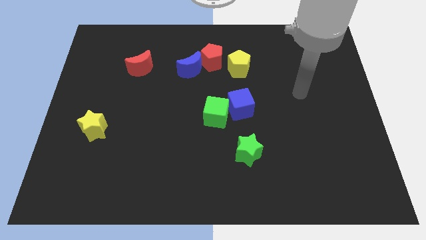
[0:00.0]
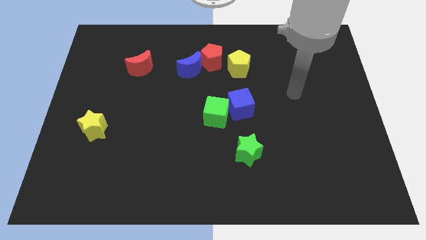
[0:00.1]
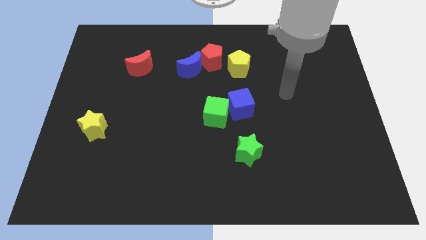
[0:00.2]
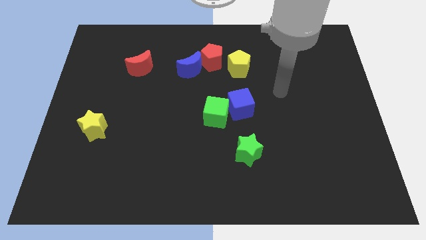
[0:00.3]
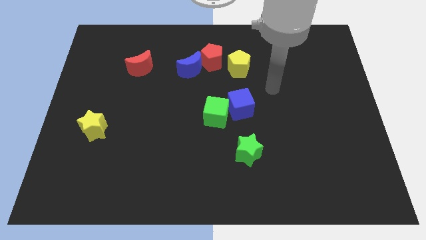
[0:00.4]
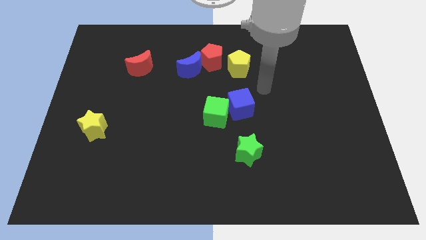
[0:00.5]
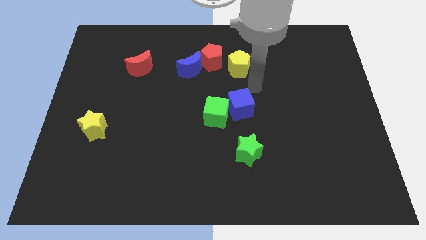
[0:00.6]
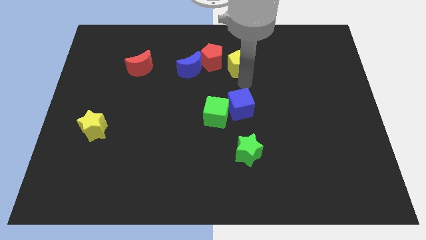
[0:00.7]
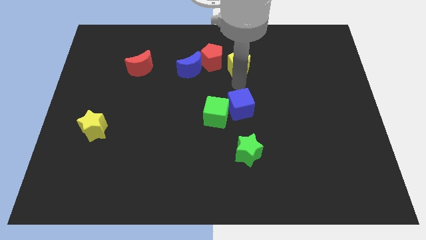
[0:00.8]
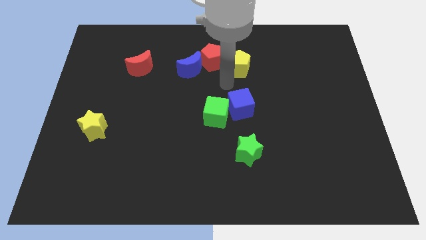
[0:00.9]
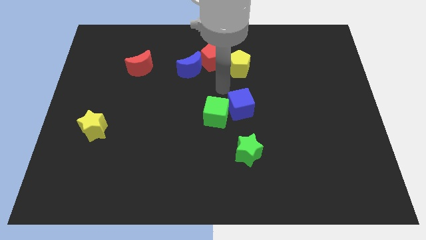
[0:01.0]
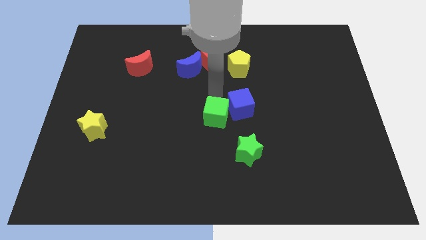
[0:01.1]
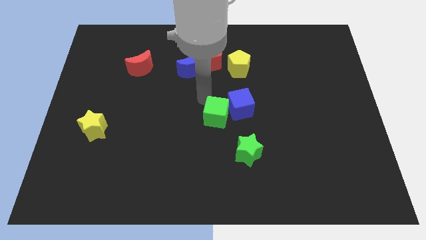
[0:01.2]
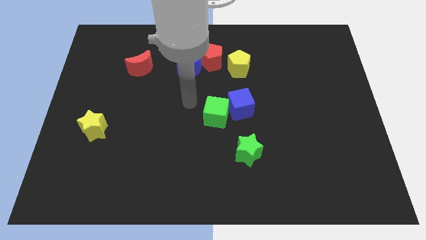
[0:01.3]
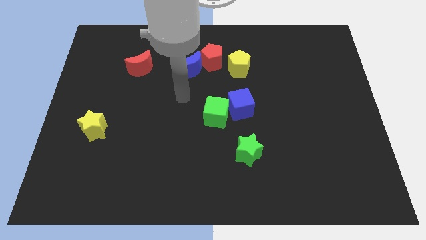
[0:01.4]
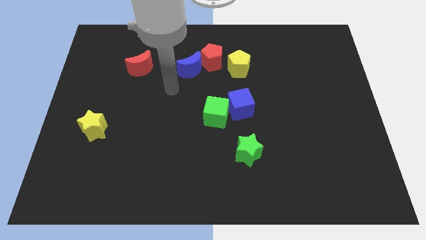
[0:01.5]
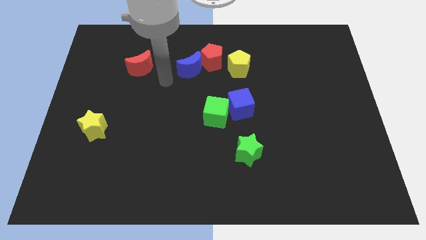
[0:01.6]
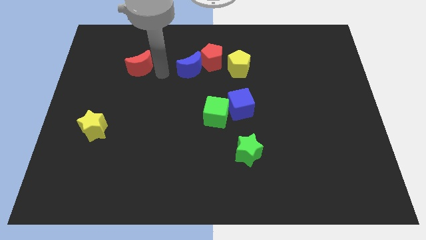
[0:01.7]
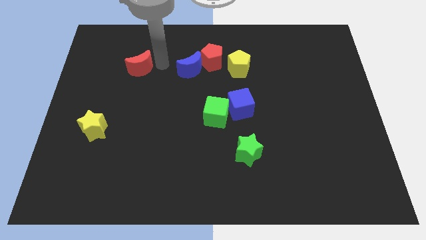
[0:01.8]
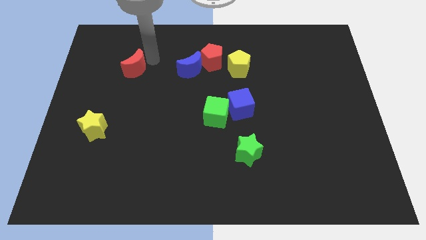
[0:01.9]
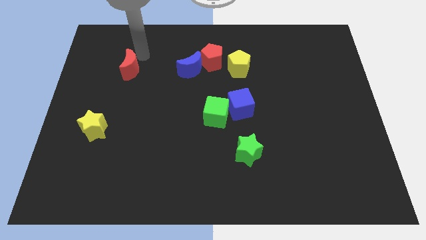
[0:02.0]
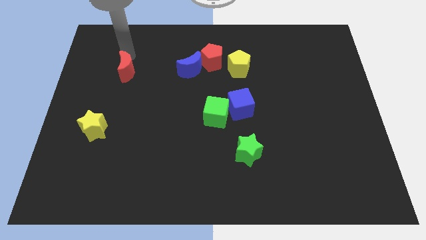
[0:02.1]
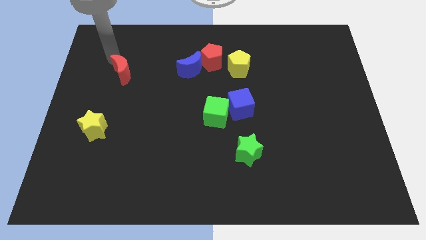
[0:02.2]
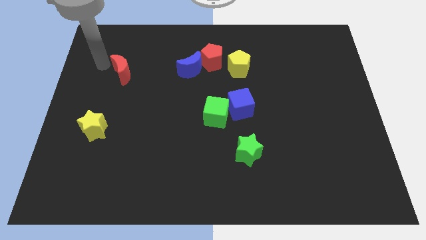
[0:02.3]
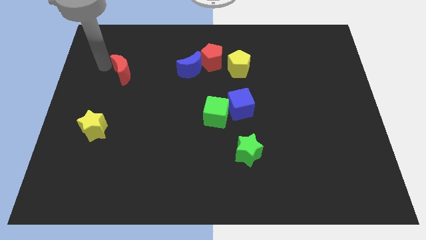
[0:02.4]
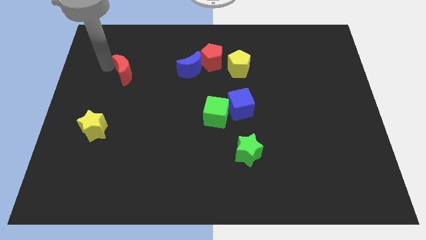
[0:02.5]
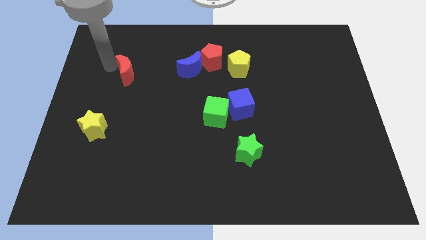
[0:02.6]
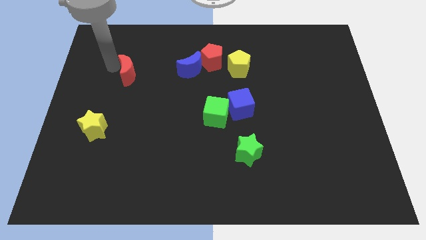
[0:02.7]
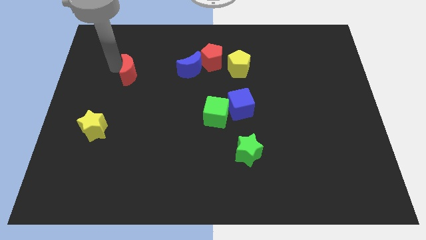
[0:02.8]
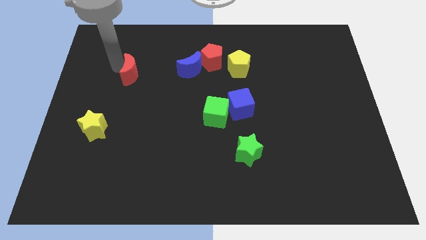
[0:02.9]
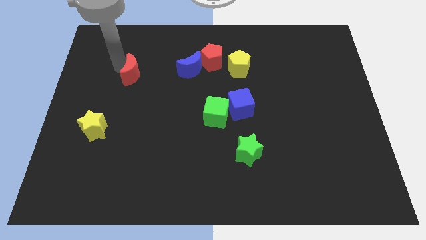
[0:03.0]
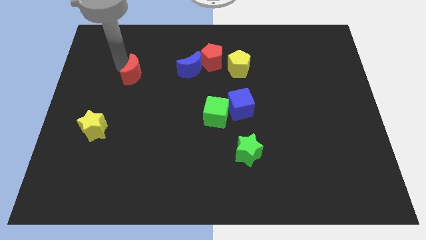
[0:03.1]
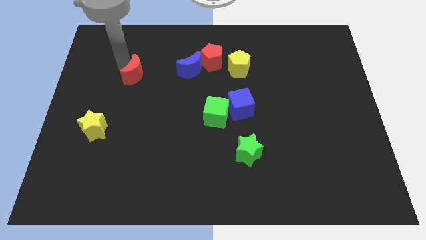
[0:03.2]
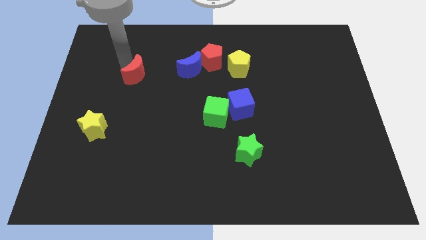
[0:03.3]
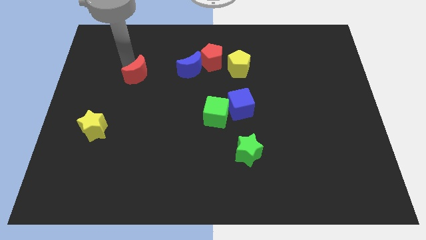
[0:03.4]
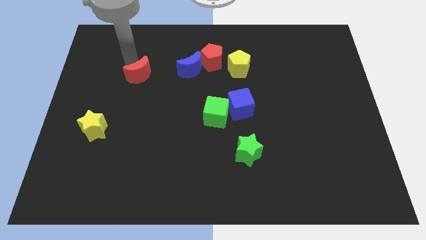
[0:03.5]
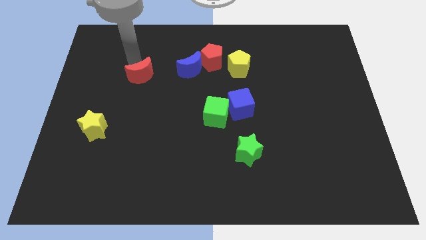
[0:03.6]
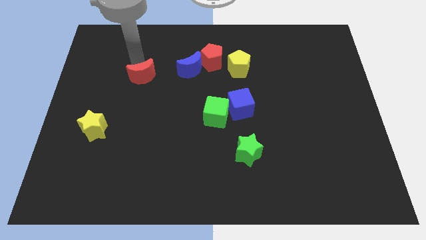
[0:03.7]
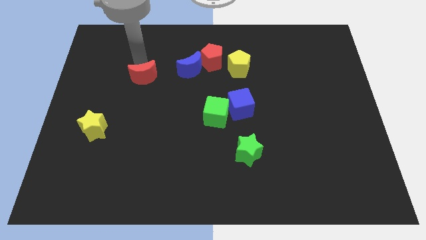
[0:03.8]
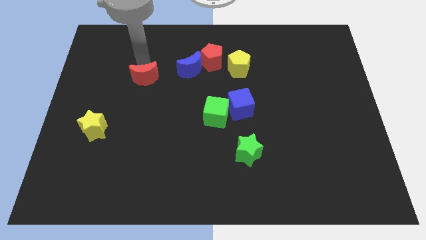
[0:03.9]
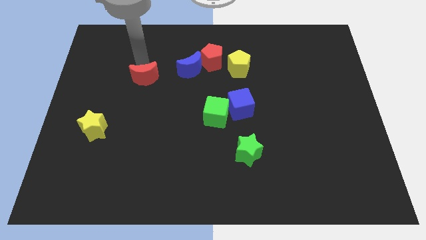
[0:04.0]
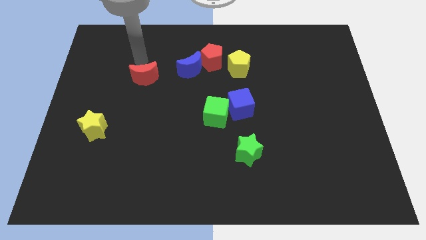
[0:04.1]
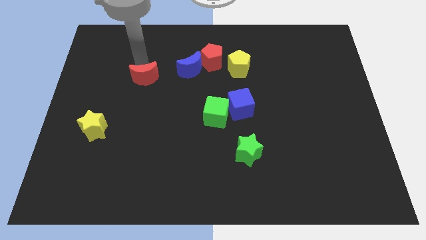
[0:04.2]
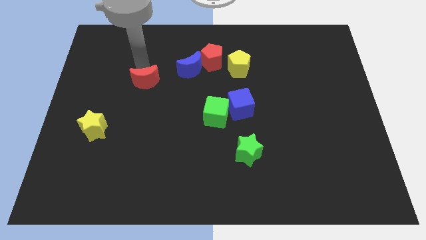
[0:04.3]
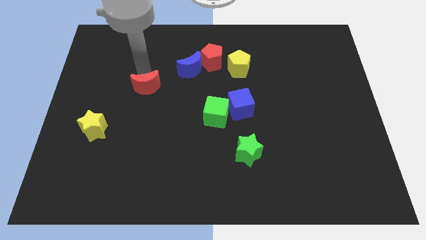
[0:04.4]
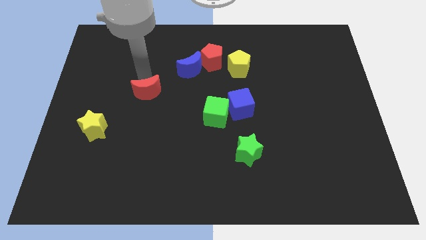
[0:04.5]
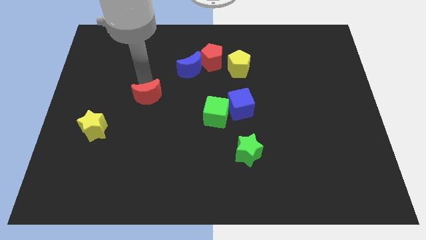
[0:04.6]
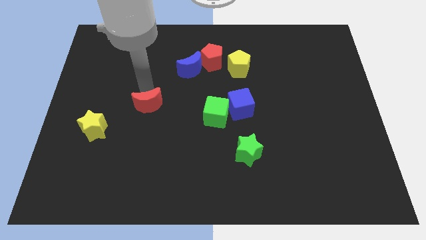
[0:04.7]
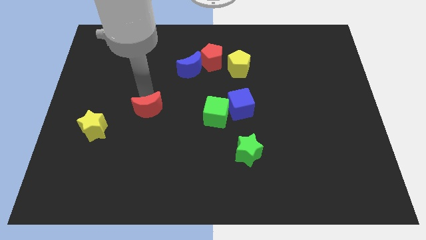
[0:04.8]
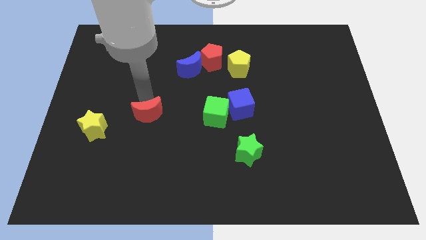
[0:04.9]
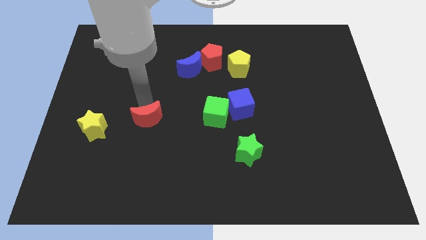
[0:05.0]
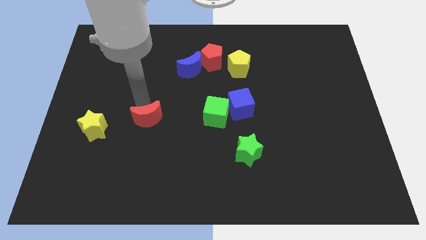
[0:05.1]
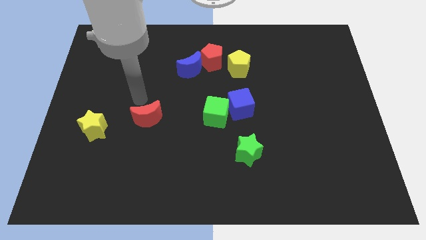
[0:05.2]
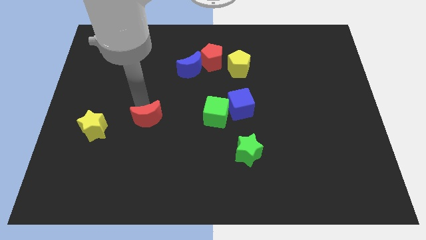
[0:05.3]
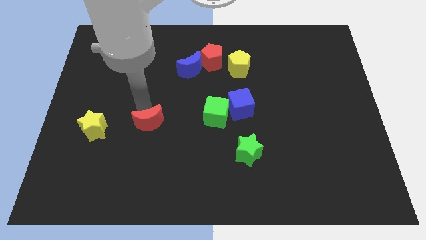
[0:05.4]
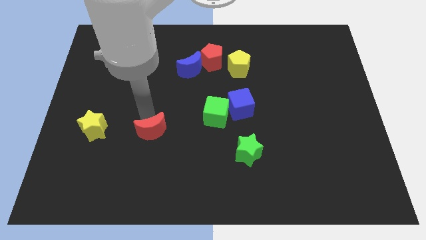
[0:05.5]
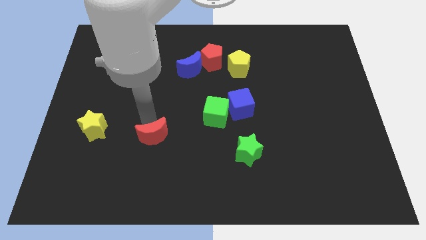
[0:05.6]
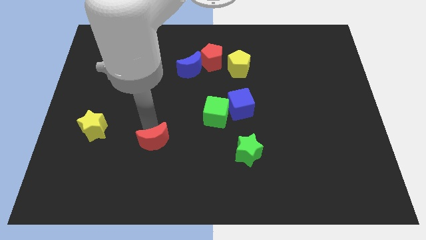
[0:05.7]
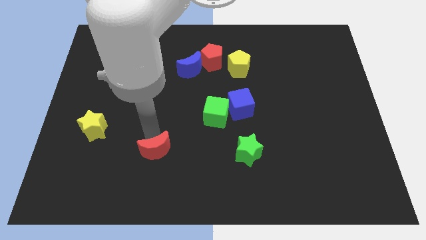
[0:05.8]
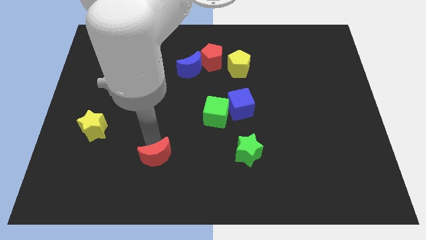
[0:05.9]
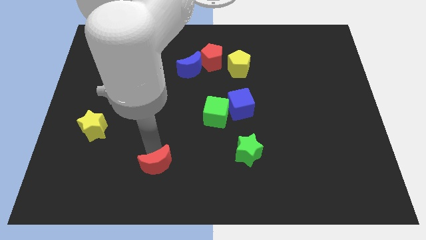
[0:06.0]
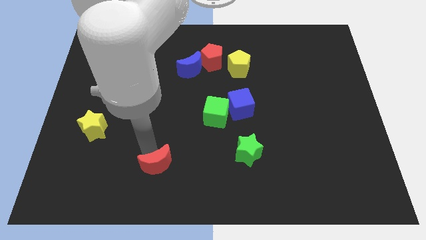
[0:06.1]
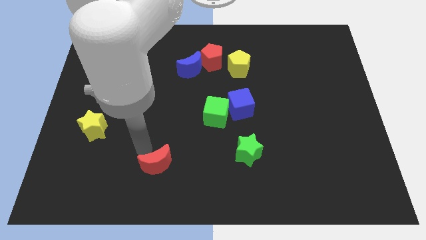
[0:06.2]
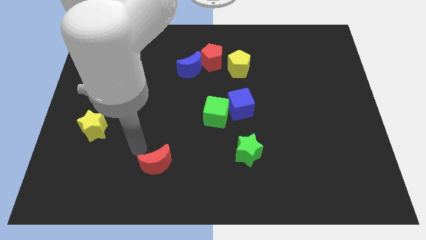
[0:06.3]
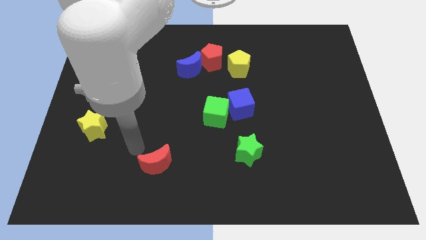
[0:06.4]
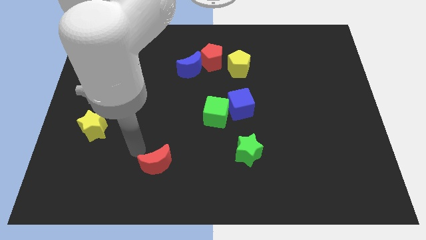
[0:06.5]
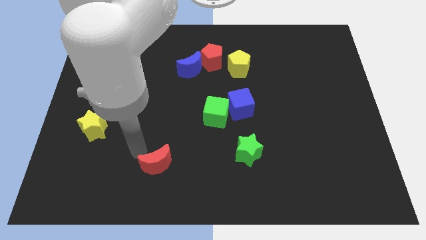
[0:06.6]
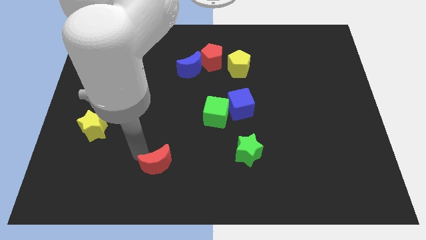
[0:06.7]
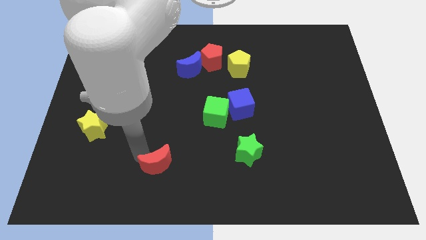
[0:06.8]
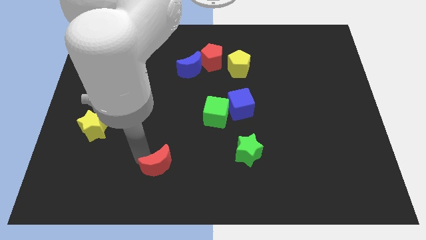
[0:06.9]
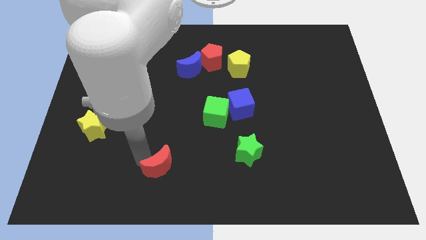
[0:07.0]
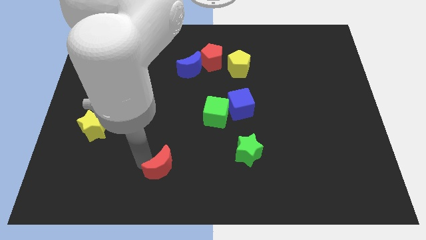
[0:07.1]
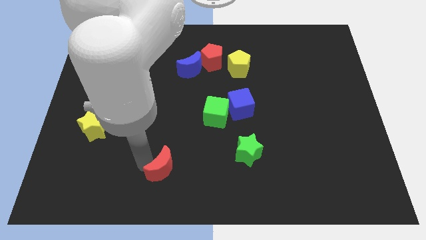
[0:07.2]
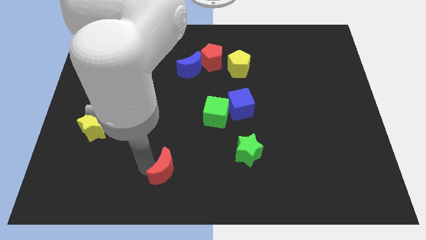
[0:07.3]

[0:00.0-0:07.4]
slide the red moon to the bottom side

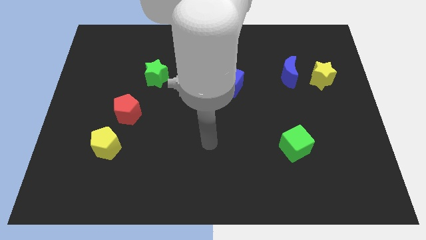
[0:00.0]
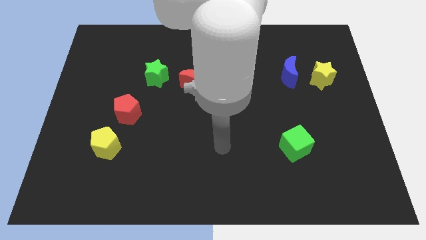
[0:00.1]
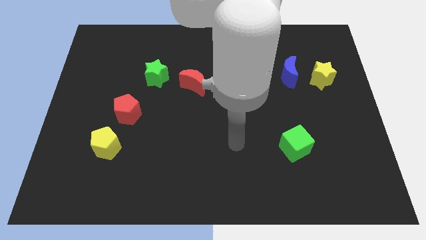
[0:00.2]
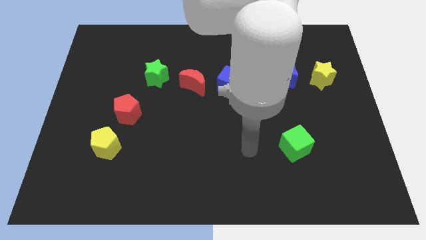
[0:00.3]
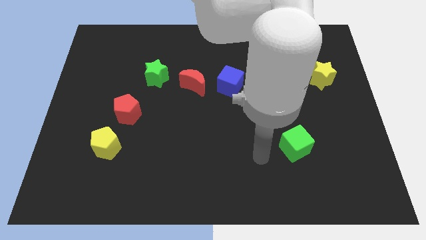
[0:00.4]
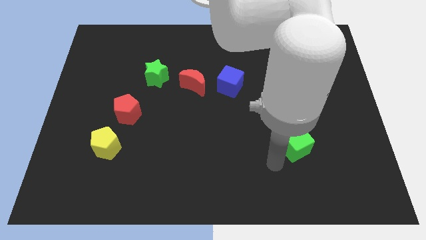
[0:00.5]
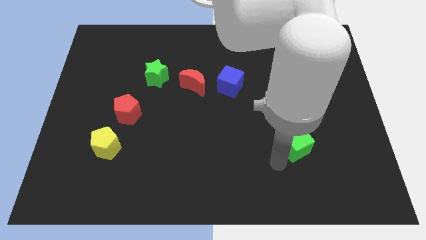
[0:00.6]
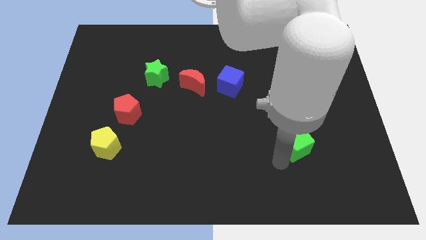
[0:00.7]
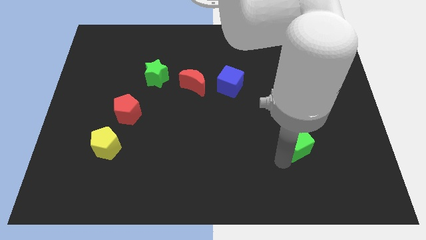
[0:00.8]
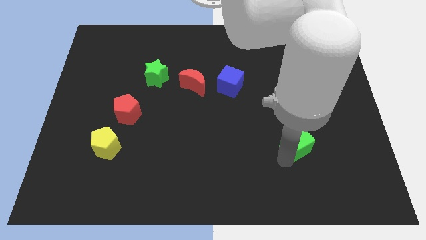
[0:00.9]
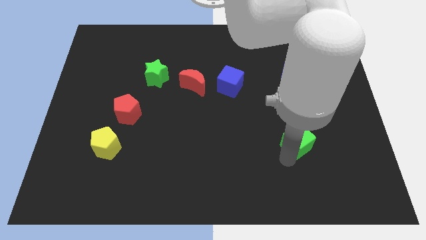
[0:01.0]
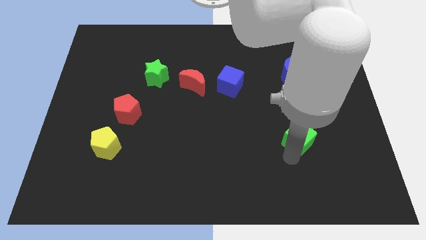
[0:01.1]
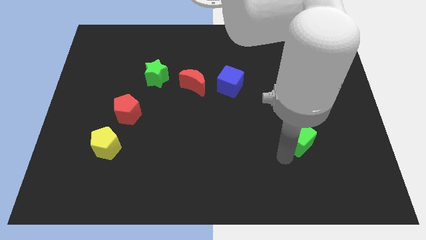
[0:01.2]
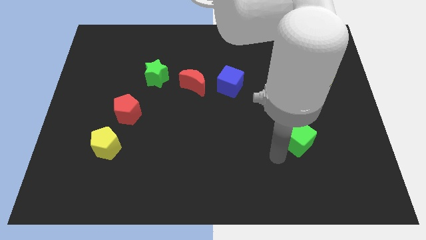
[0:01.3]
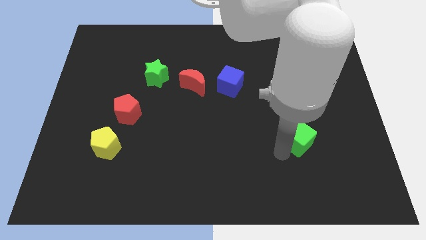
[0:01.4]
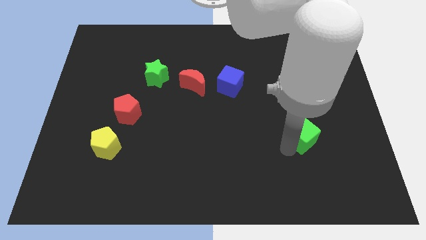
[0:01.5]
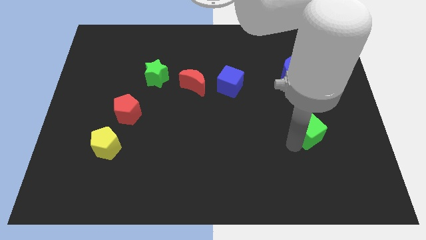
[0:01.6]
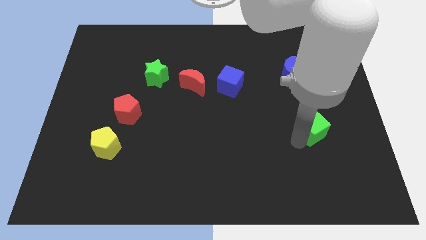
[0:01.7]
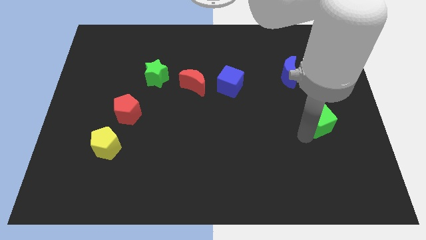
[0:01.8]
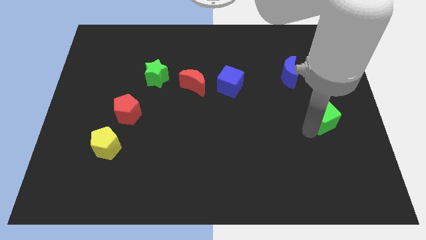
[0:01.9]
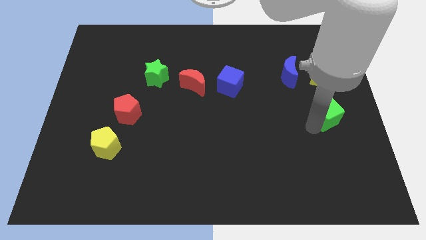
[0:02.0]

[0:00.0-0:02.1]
put the green cube to the right side
